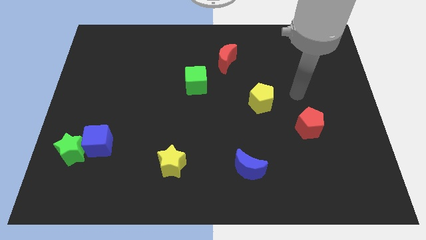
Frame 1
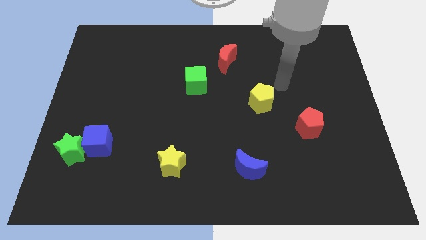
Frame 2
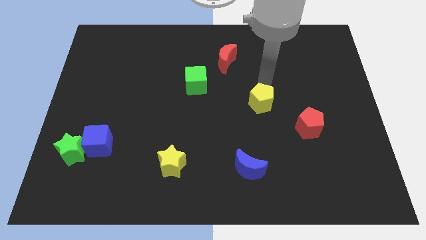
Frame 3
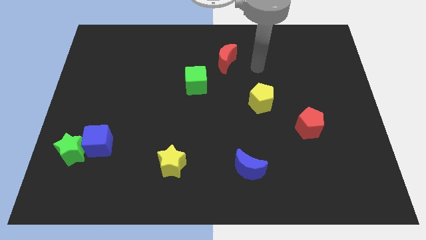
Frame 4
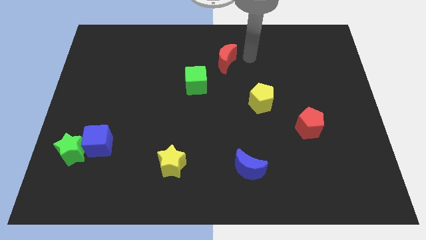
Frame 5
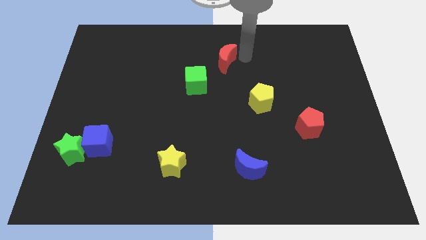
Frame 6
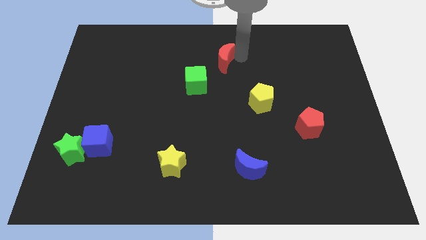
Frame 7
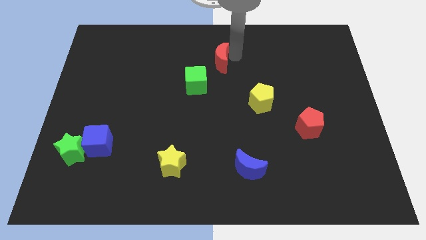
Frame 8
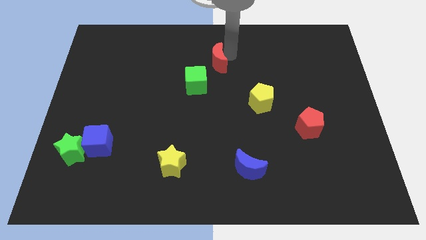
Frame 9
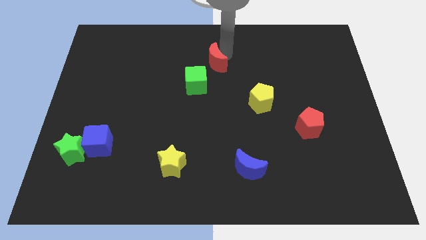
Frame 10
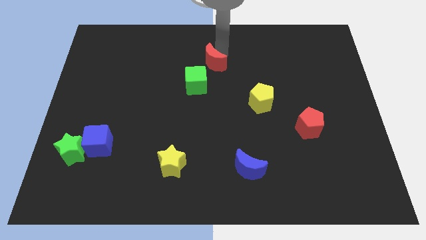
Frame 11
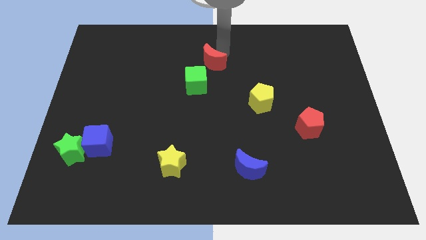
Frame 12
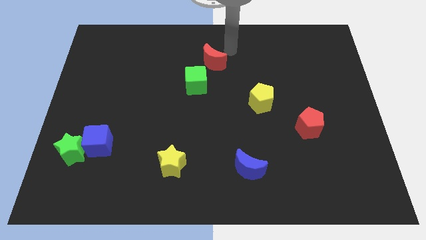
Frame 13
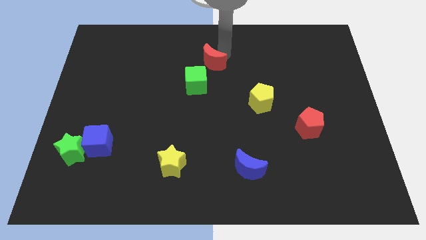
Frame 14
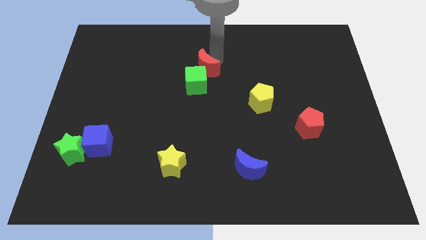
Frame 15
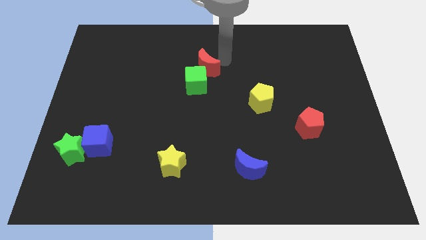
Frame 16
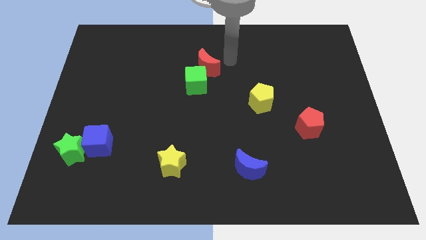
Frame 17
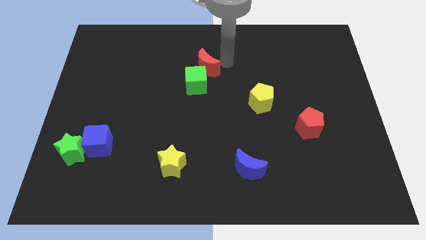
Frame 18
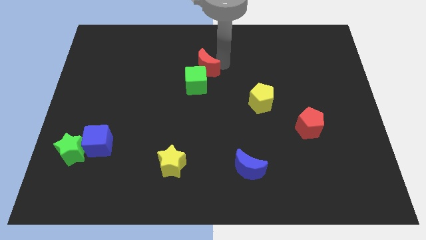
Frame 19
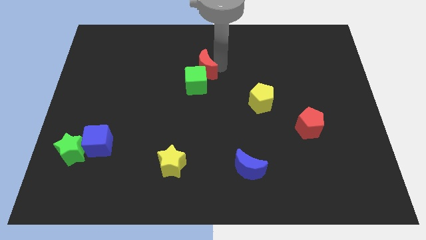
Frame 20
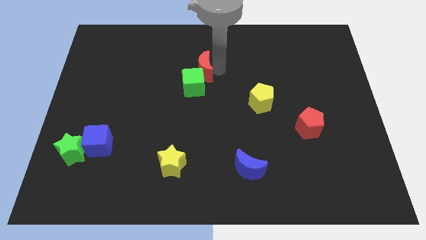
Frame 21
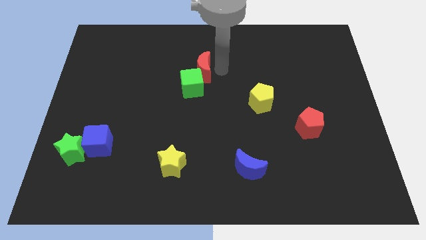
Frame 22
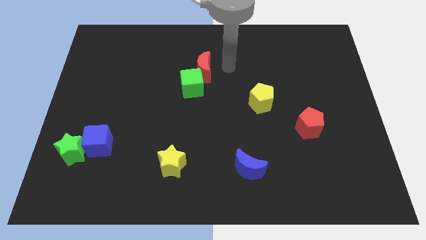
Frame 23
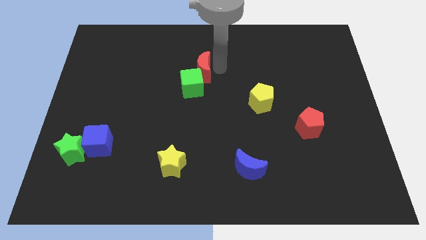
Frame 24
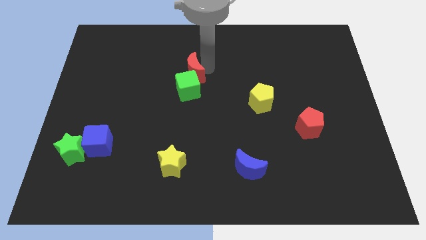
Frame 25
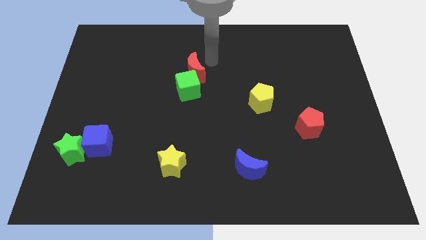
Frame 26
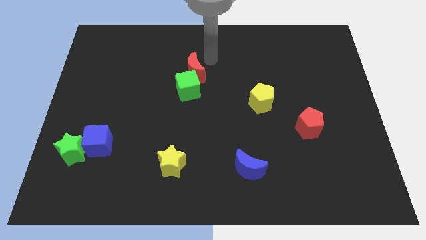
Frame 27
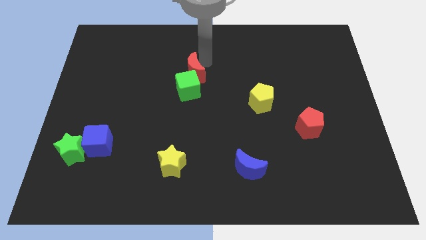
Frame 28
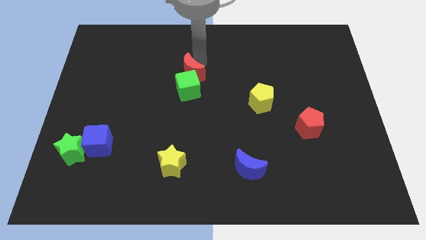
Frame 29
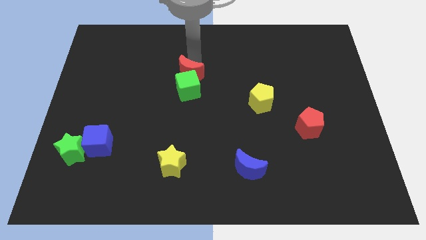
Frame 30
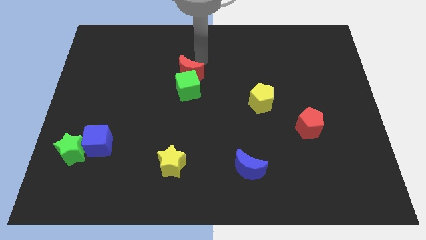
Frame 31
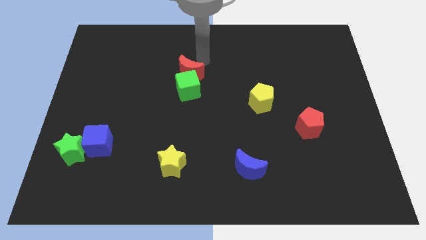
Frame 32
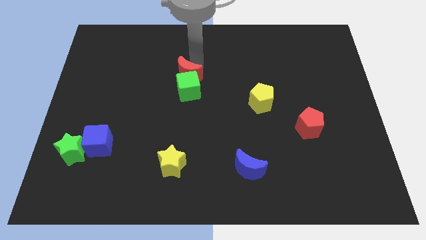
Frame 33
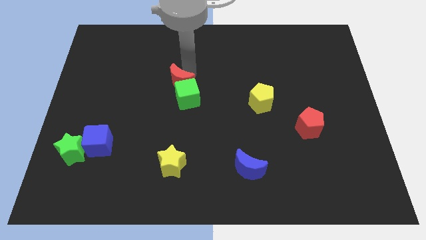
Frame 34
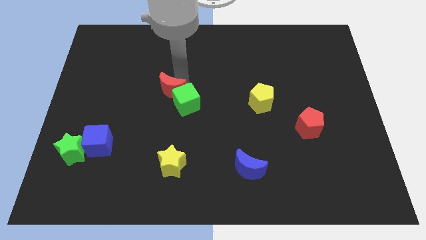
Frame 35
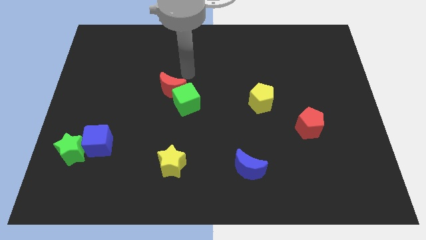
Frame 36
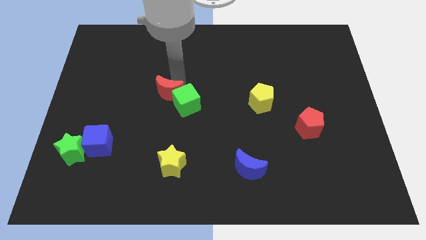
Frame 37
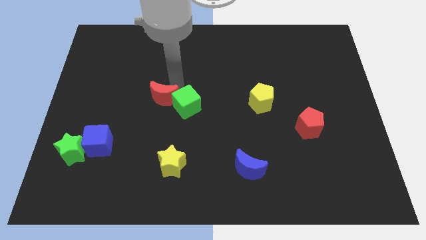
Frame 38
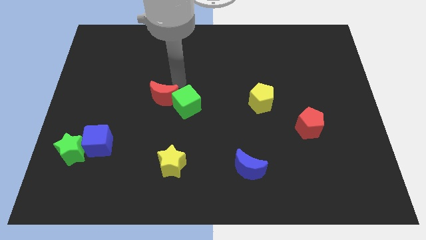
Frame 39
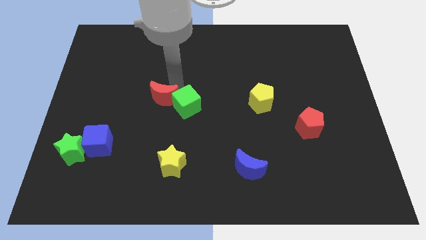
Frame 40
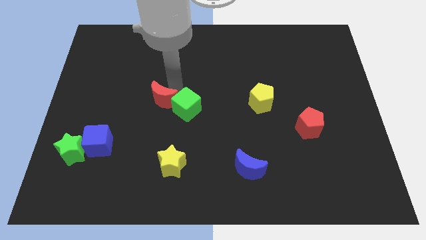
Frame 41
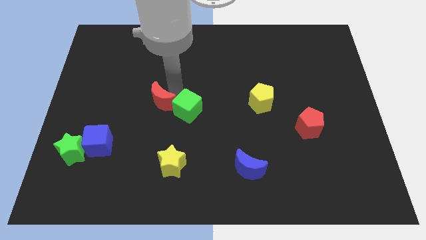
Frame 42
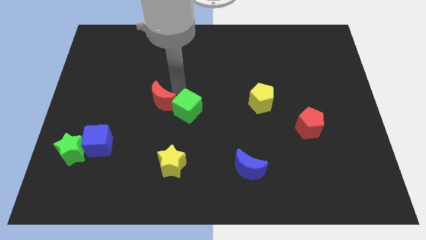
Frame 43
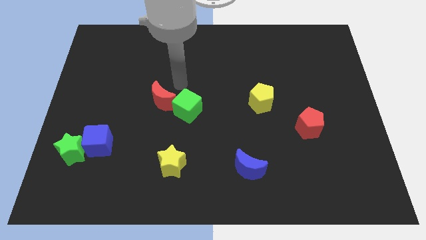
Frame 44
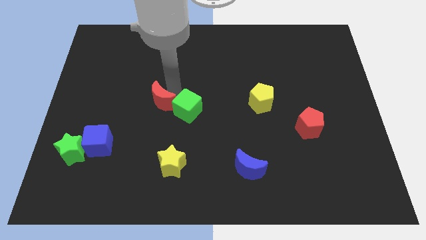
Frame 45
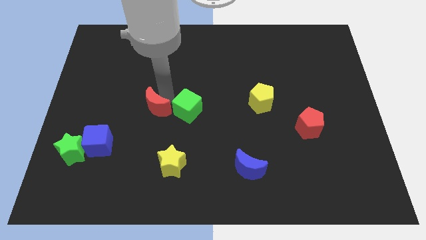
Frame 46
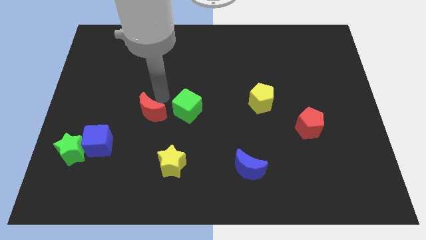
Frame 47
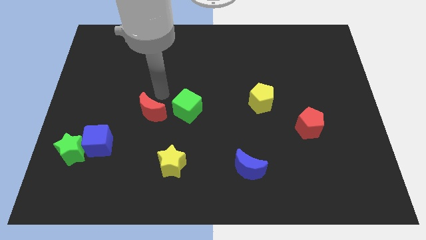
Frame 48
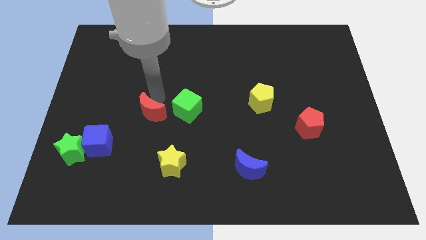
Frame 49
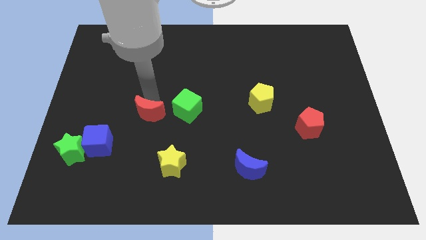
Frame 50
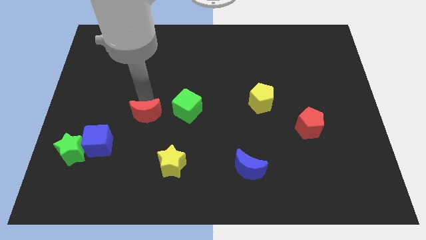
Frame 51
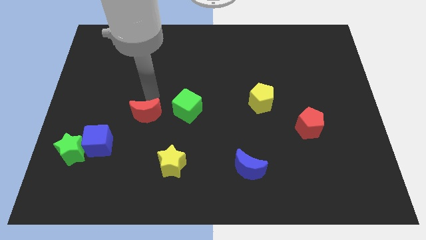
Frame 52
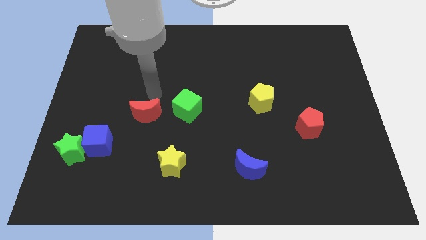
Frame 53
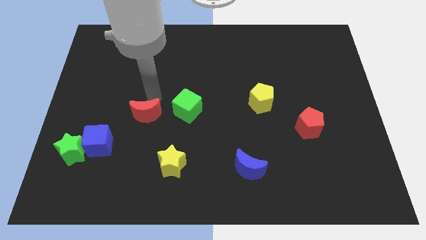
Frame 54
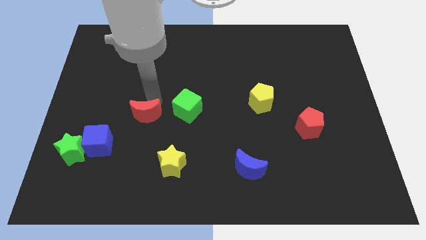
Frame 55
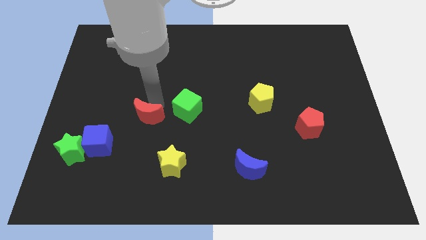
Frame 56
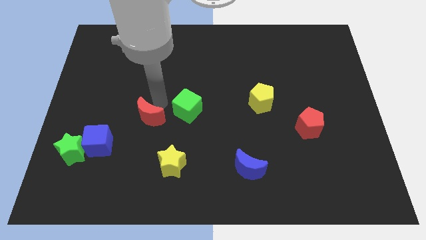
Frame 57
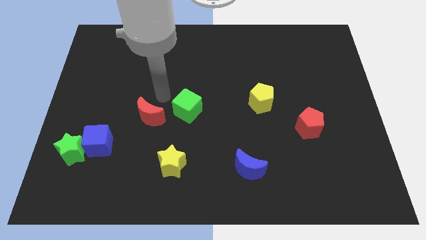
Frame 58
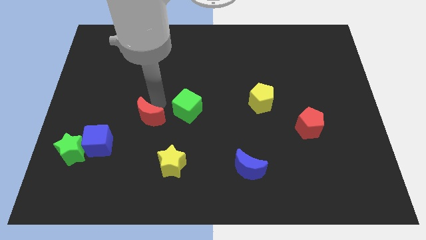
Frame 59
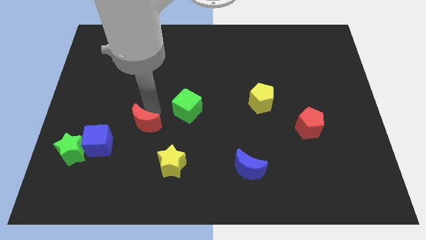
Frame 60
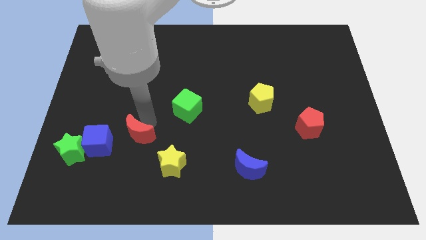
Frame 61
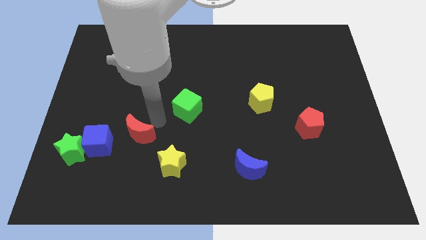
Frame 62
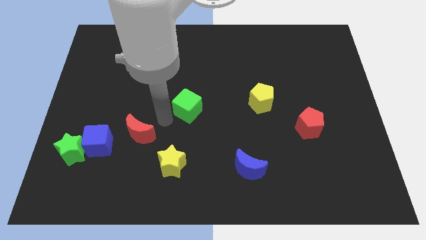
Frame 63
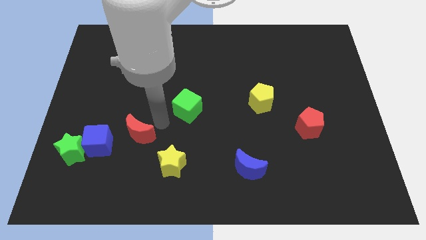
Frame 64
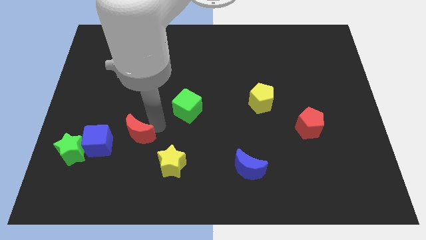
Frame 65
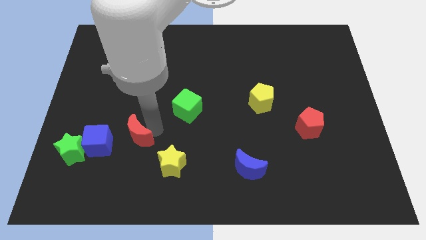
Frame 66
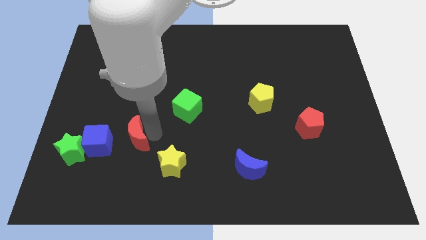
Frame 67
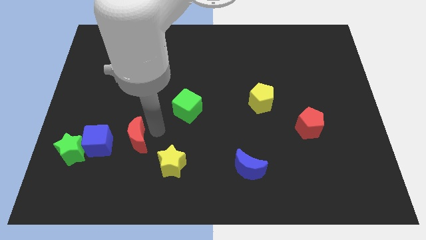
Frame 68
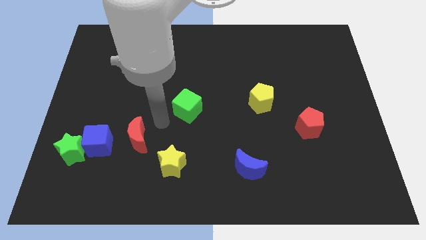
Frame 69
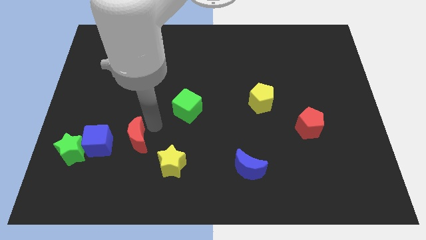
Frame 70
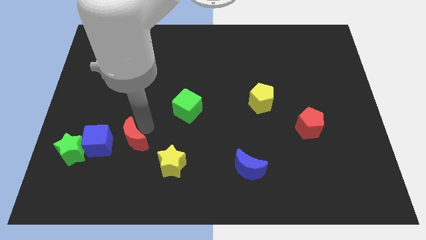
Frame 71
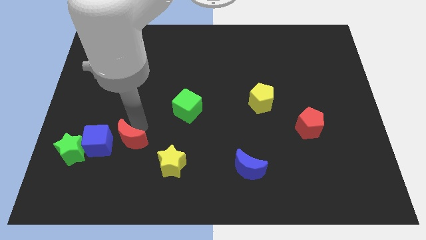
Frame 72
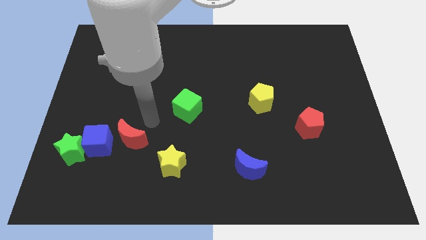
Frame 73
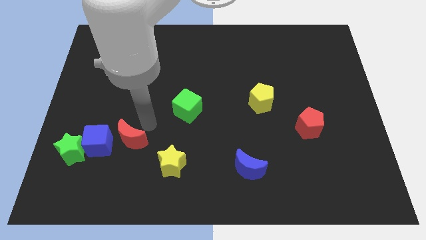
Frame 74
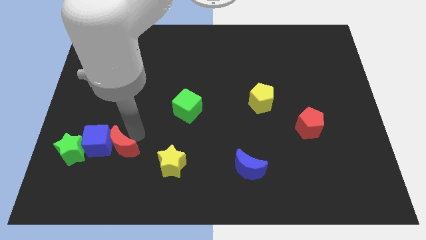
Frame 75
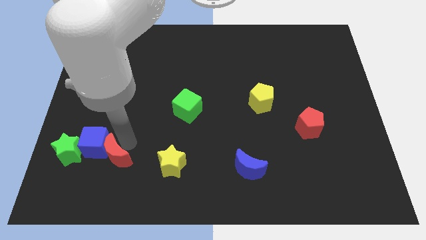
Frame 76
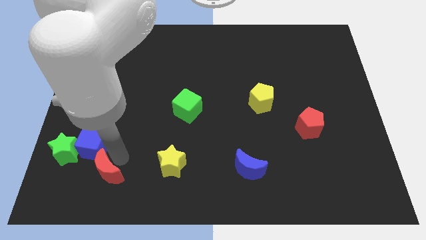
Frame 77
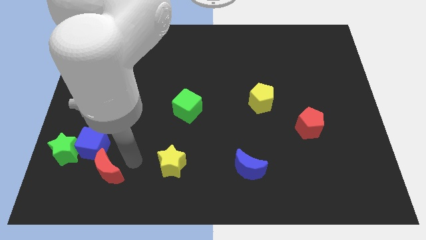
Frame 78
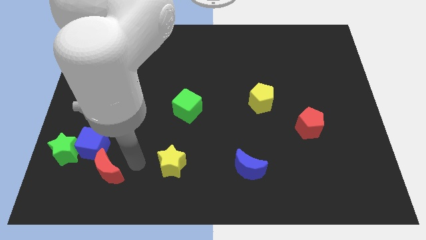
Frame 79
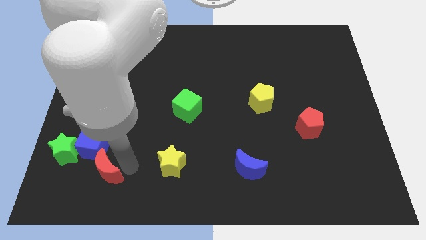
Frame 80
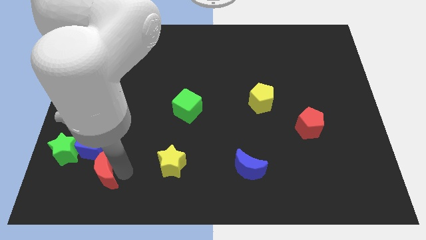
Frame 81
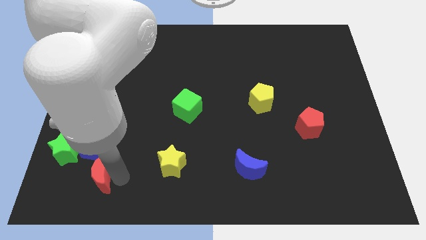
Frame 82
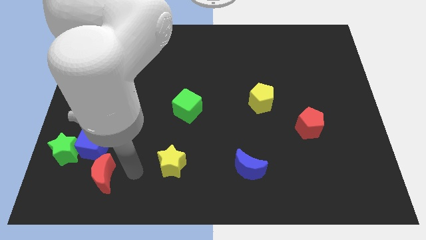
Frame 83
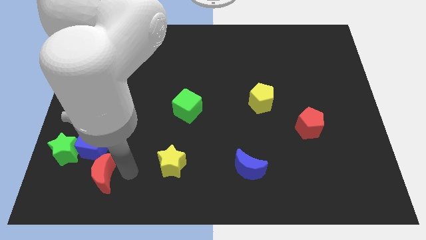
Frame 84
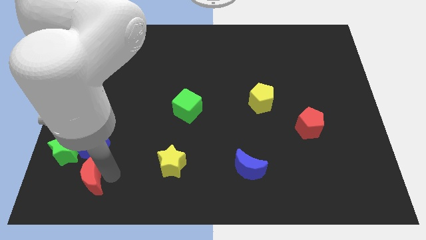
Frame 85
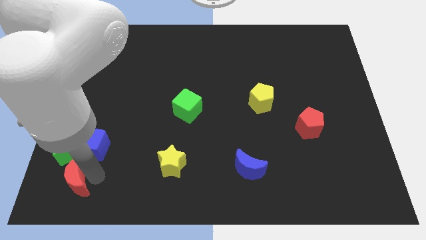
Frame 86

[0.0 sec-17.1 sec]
push the red moon to the bottom left corner
